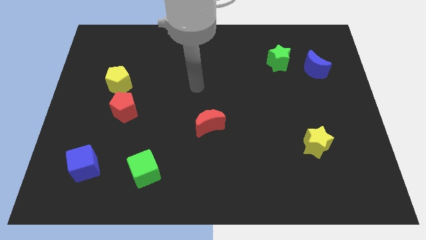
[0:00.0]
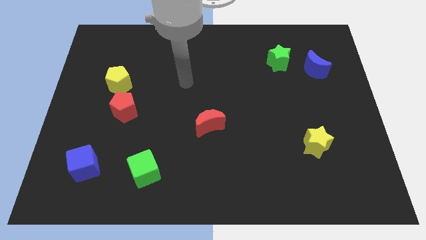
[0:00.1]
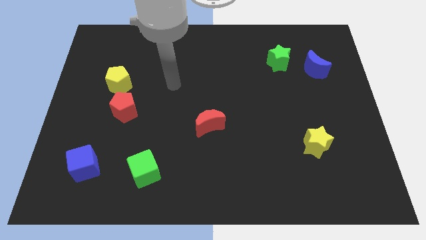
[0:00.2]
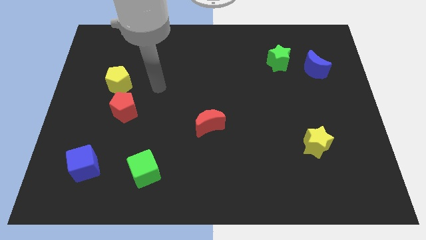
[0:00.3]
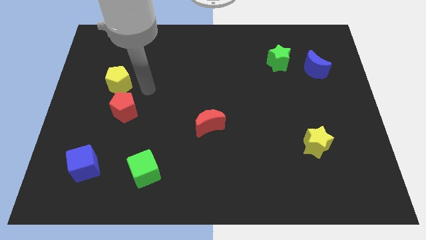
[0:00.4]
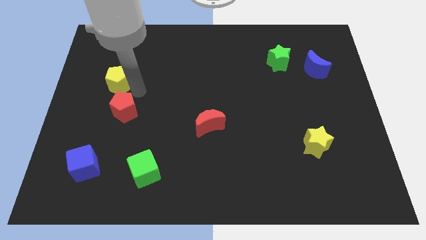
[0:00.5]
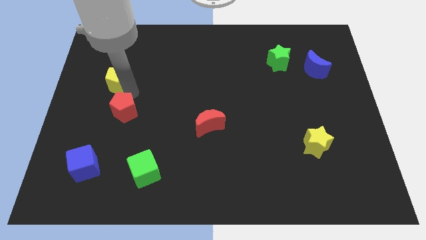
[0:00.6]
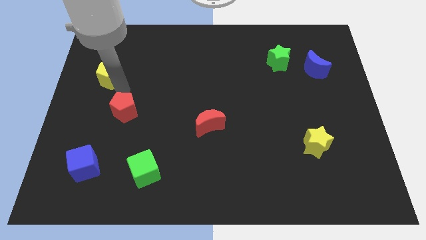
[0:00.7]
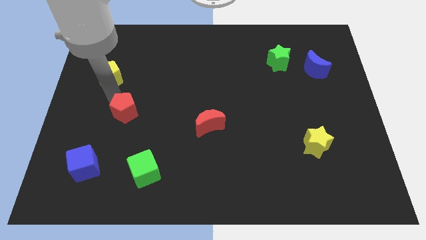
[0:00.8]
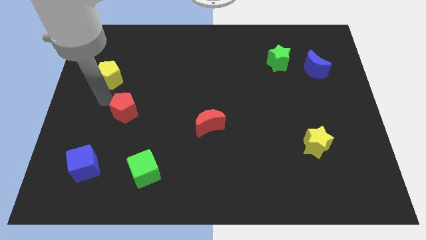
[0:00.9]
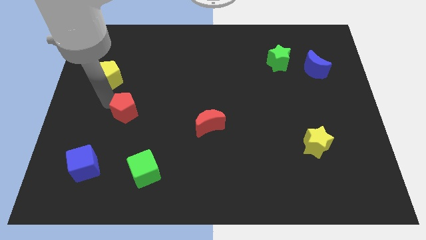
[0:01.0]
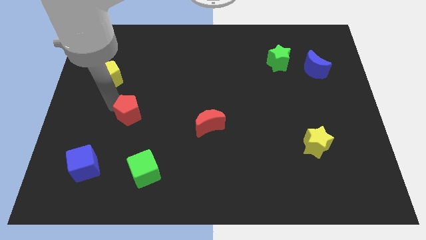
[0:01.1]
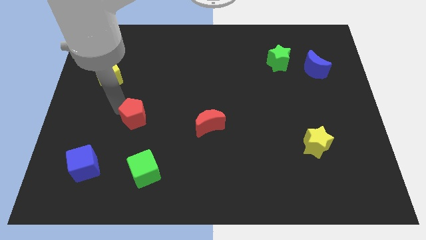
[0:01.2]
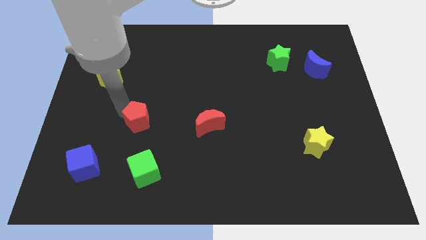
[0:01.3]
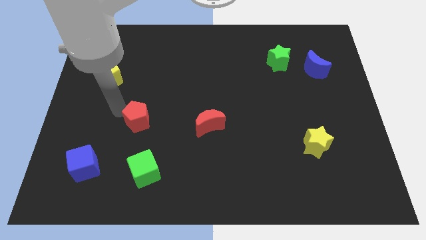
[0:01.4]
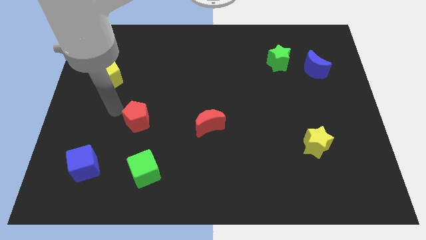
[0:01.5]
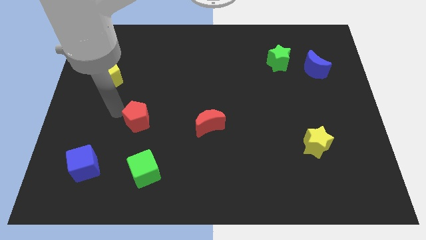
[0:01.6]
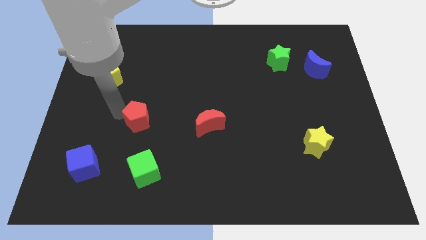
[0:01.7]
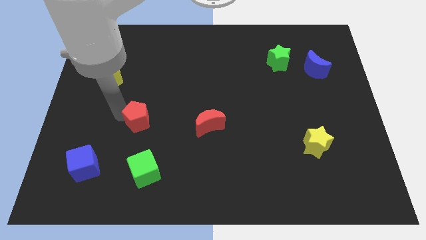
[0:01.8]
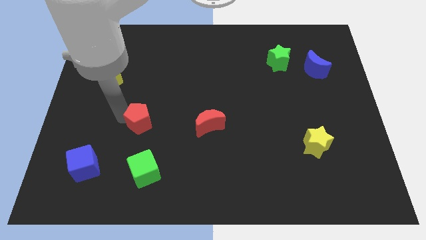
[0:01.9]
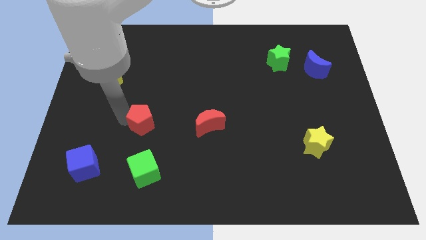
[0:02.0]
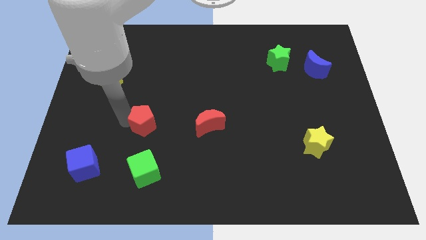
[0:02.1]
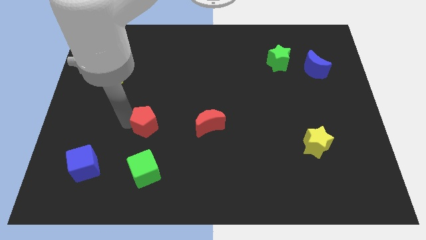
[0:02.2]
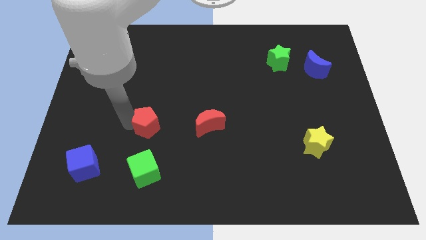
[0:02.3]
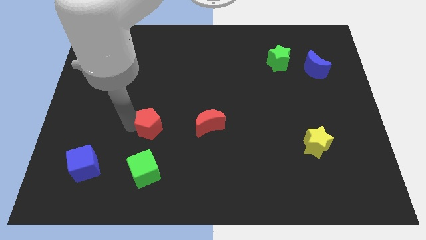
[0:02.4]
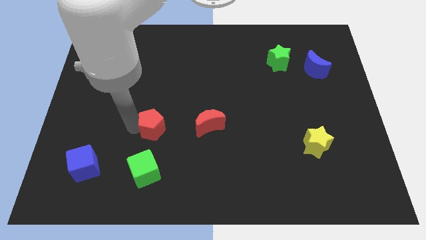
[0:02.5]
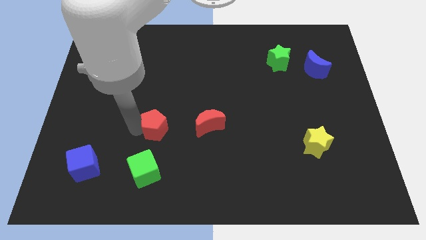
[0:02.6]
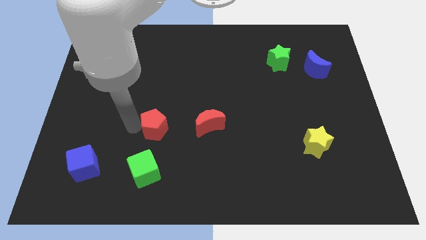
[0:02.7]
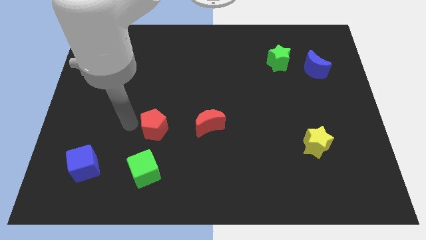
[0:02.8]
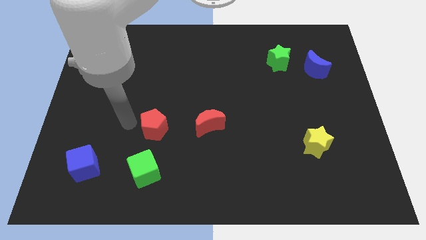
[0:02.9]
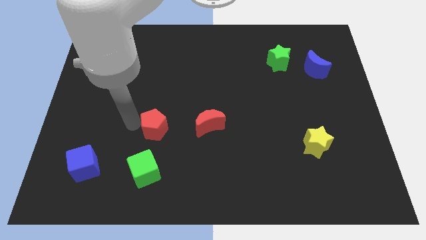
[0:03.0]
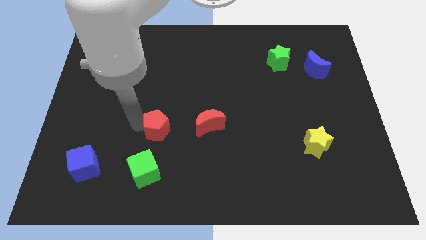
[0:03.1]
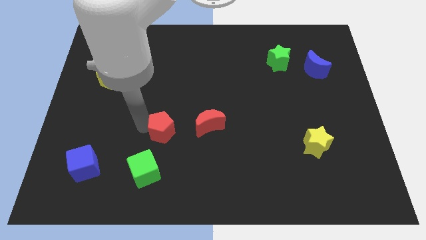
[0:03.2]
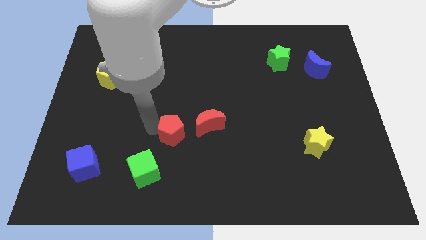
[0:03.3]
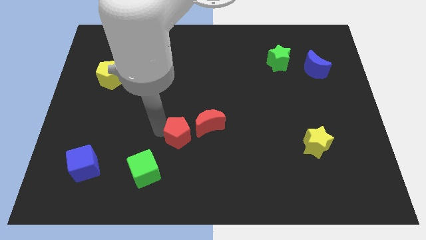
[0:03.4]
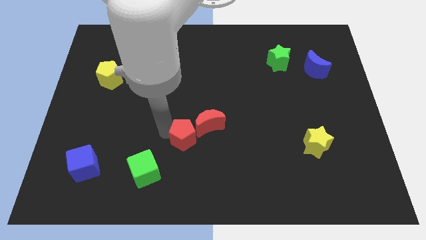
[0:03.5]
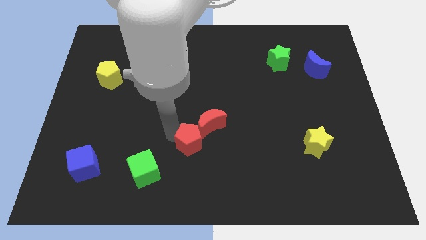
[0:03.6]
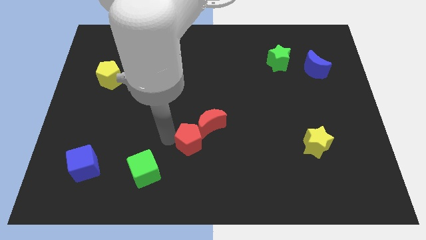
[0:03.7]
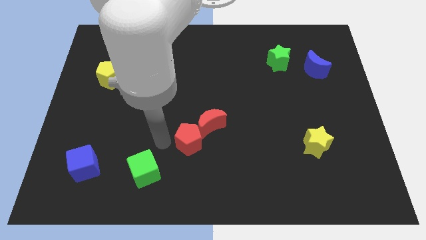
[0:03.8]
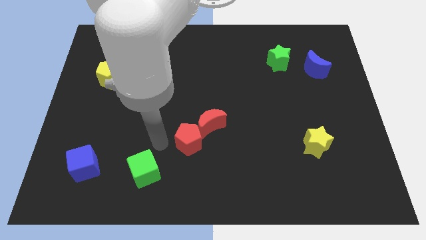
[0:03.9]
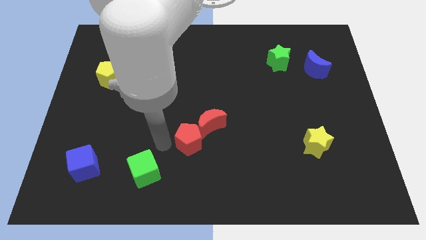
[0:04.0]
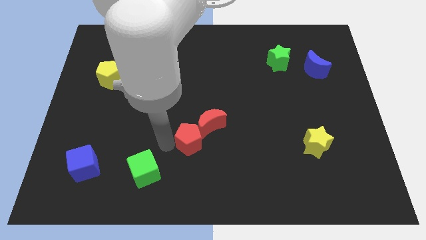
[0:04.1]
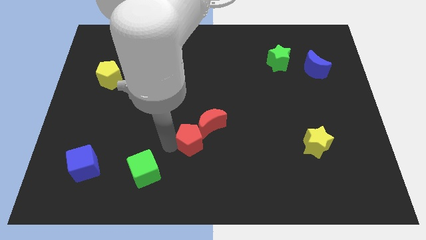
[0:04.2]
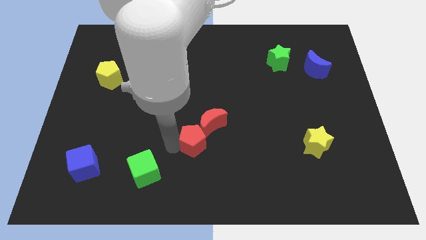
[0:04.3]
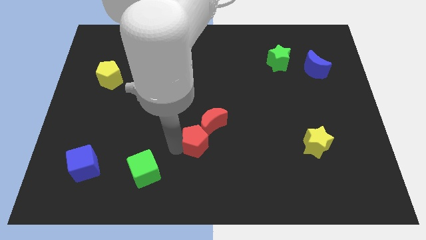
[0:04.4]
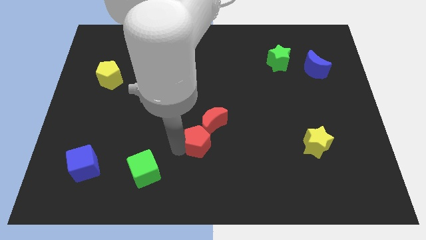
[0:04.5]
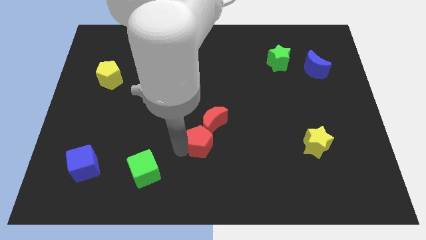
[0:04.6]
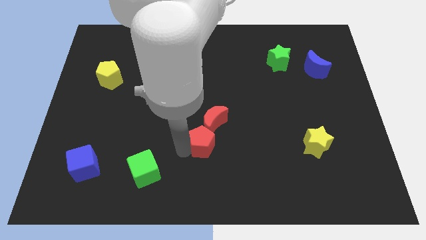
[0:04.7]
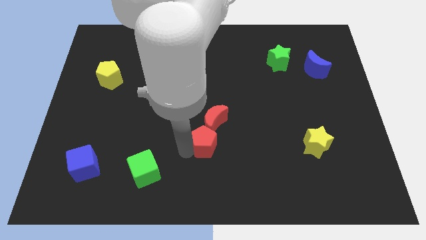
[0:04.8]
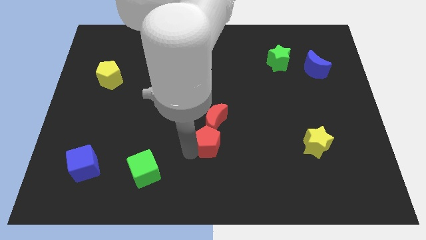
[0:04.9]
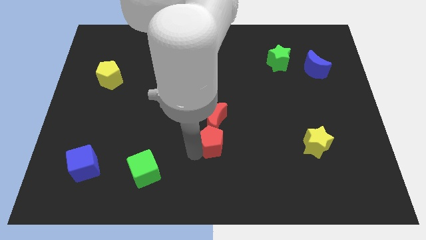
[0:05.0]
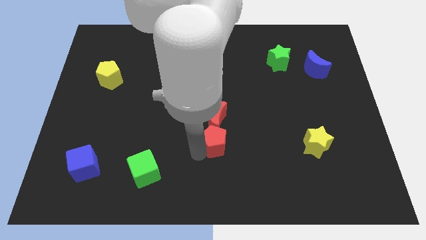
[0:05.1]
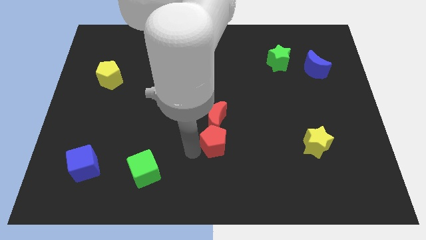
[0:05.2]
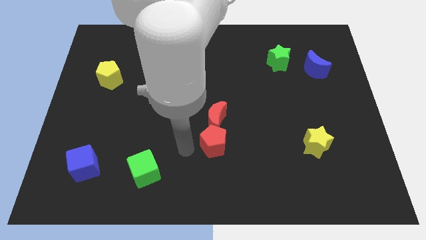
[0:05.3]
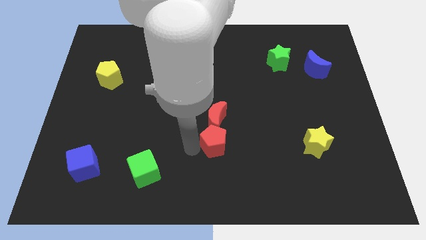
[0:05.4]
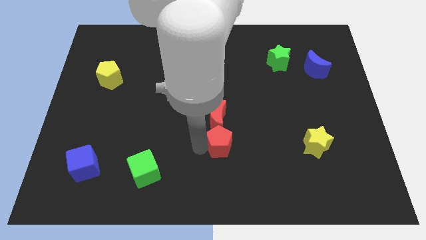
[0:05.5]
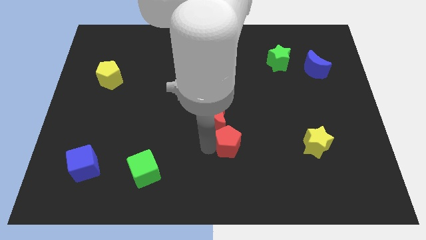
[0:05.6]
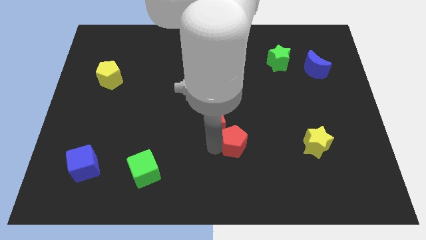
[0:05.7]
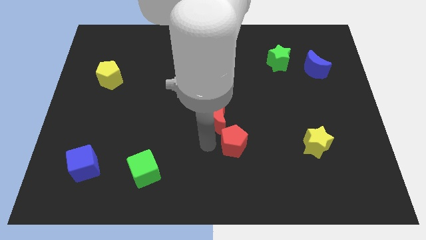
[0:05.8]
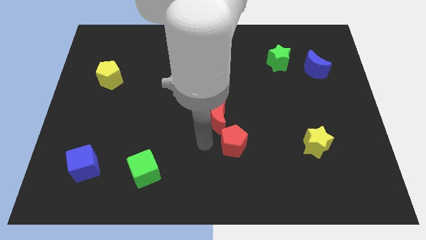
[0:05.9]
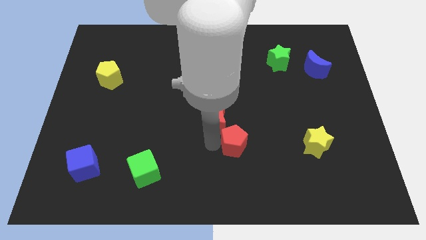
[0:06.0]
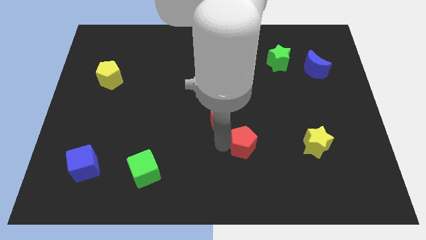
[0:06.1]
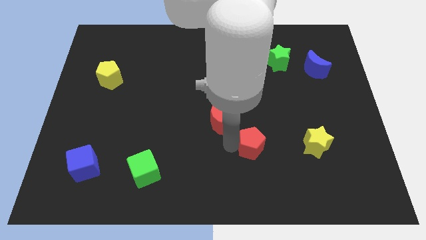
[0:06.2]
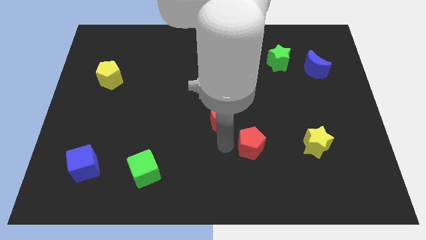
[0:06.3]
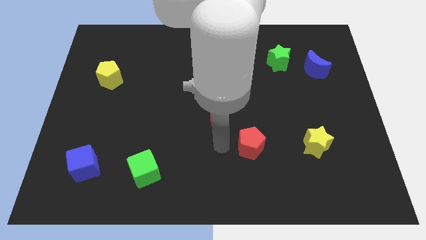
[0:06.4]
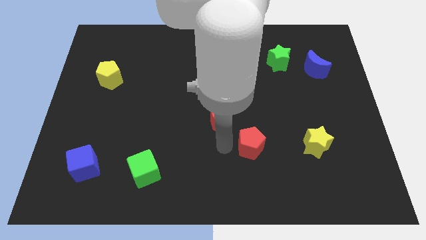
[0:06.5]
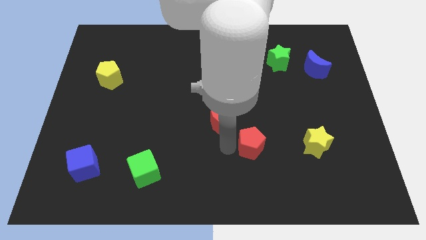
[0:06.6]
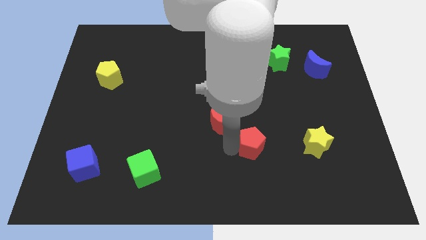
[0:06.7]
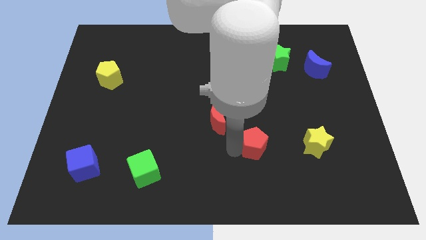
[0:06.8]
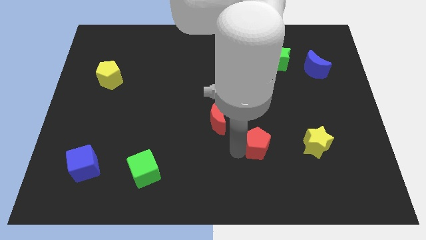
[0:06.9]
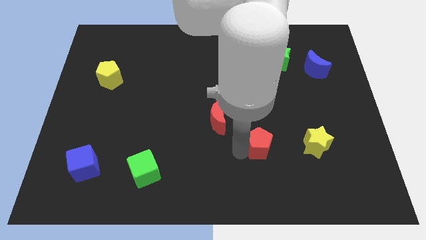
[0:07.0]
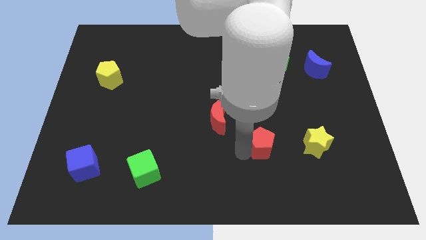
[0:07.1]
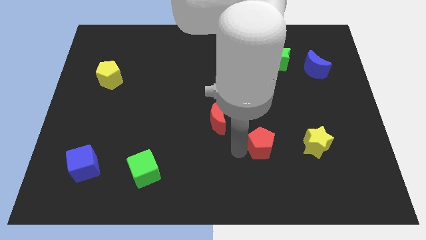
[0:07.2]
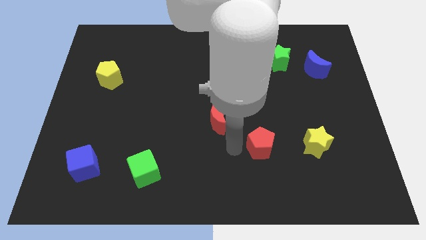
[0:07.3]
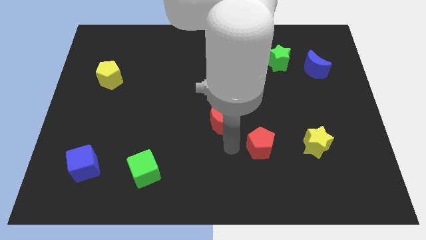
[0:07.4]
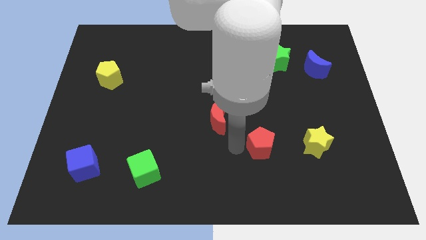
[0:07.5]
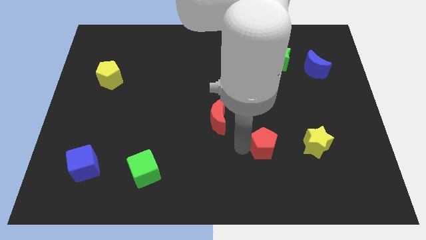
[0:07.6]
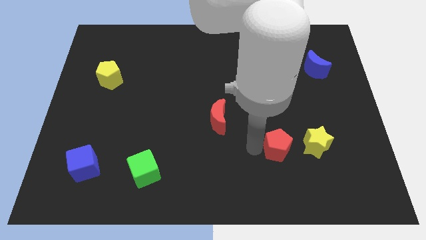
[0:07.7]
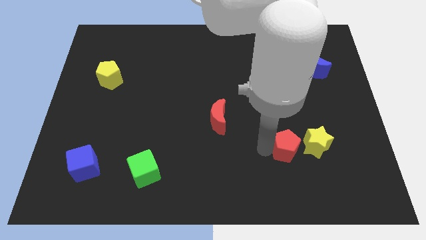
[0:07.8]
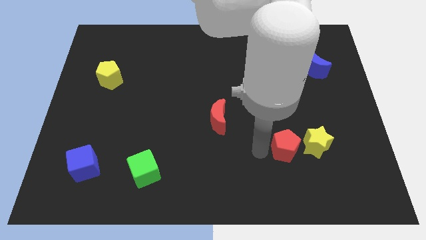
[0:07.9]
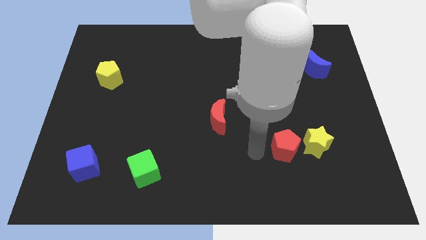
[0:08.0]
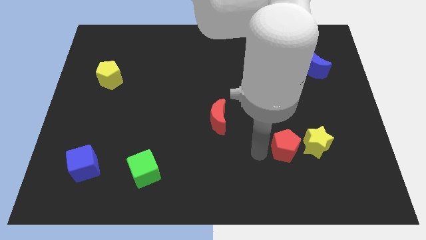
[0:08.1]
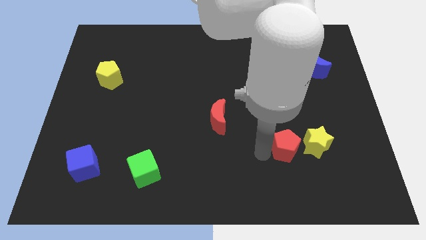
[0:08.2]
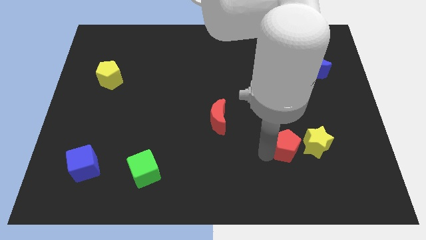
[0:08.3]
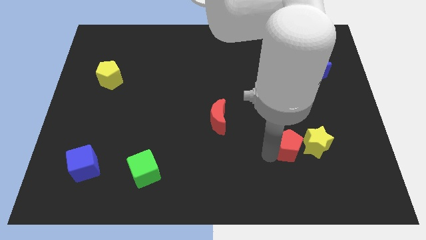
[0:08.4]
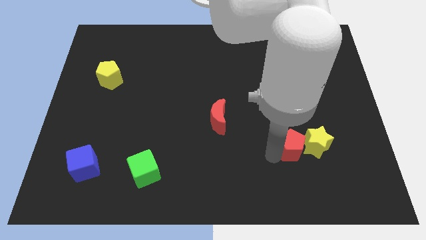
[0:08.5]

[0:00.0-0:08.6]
move the red pentagon next to the yellow star
